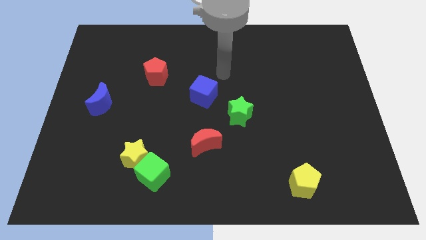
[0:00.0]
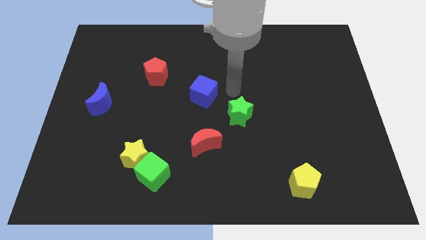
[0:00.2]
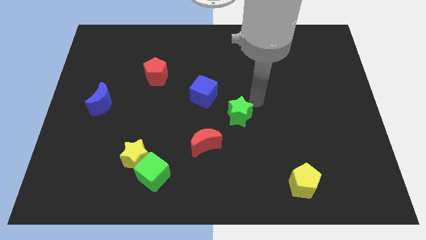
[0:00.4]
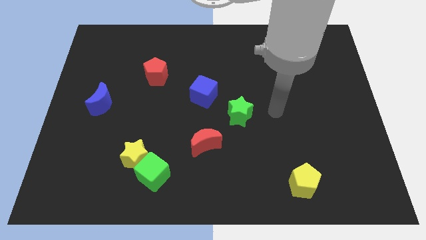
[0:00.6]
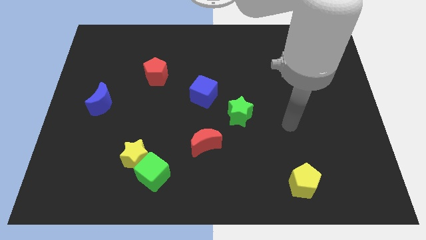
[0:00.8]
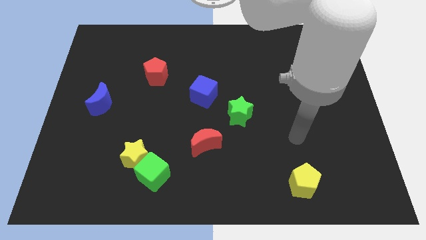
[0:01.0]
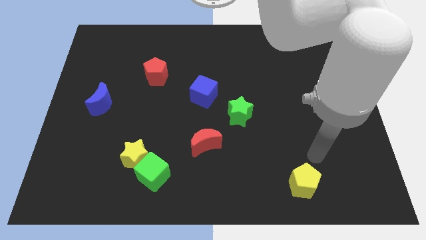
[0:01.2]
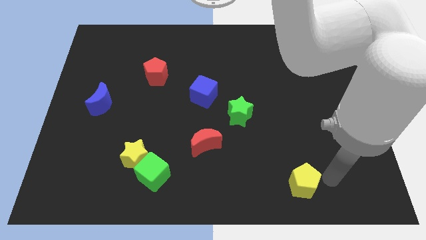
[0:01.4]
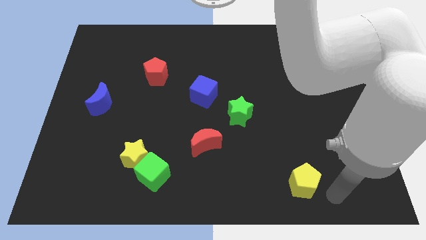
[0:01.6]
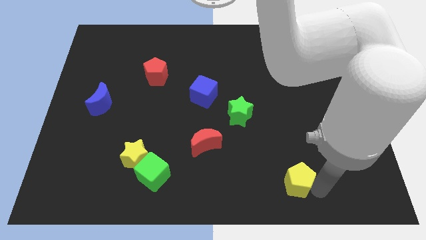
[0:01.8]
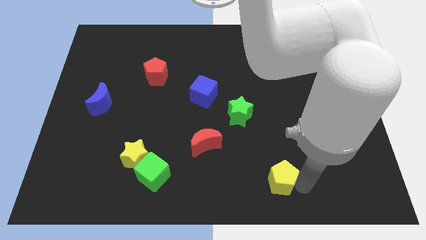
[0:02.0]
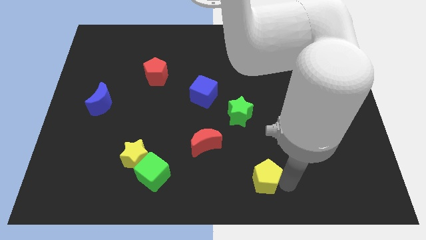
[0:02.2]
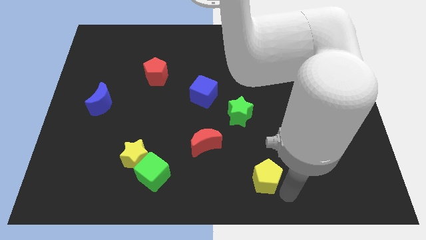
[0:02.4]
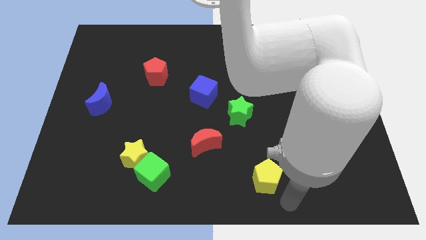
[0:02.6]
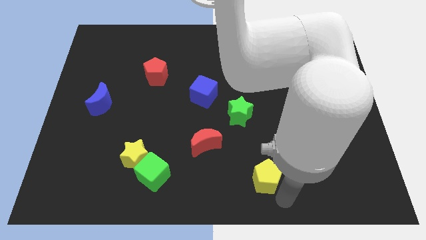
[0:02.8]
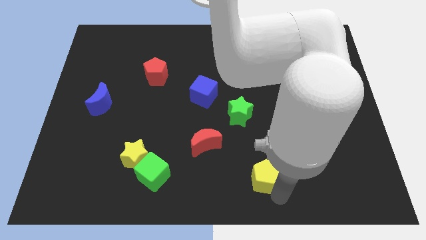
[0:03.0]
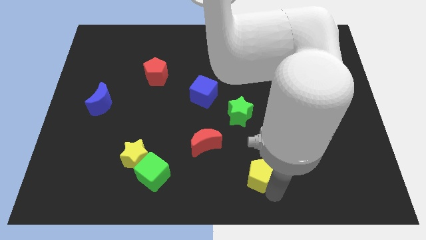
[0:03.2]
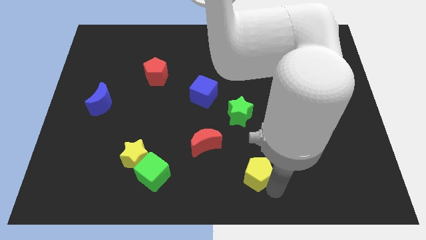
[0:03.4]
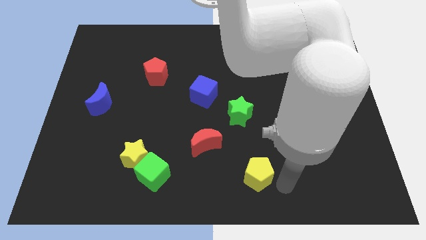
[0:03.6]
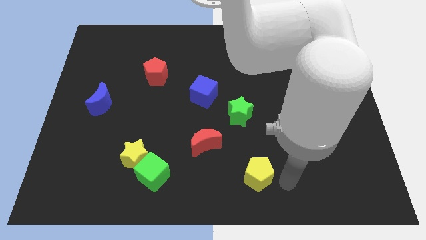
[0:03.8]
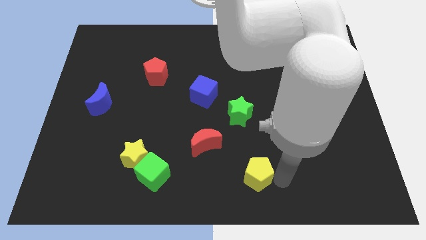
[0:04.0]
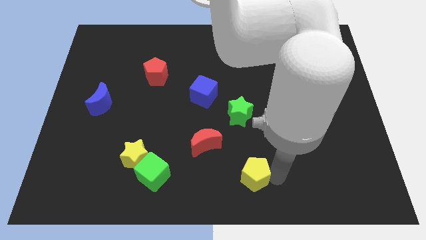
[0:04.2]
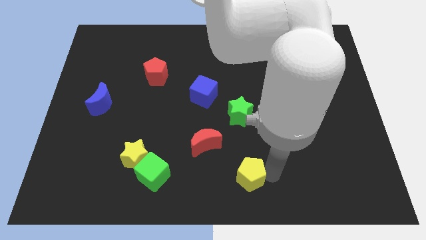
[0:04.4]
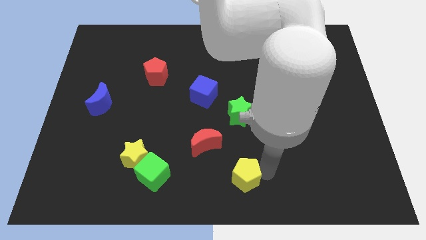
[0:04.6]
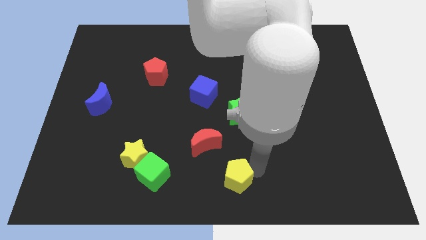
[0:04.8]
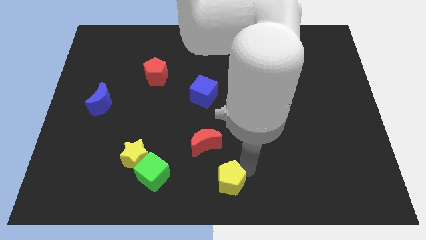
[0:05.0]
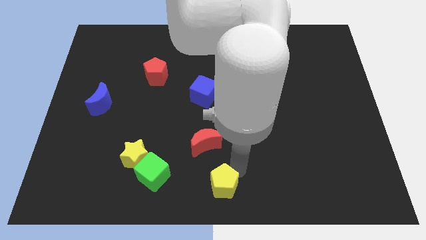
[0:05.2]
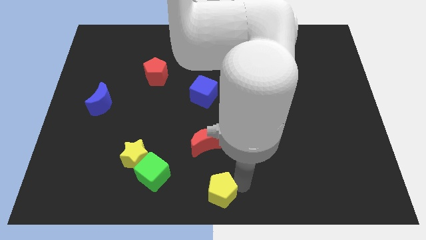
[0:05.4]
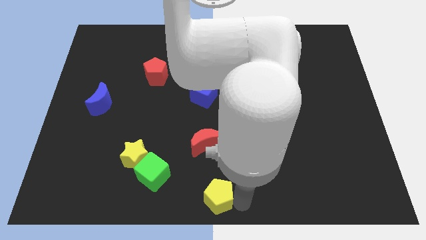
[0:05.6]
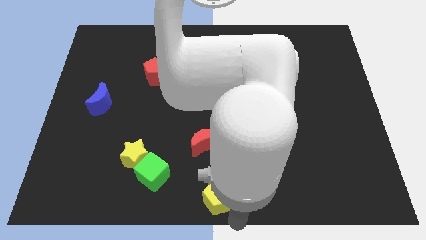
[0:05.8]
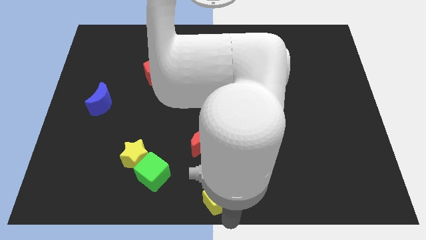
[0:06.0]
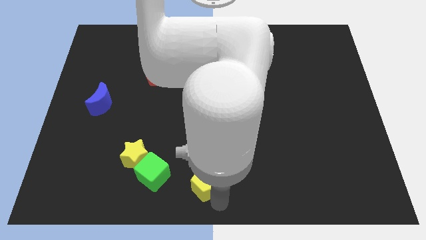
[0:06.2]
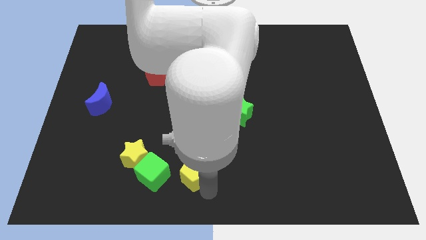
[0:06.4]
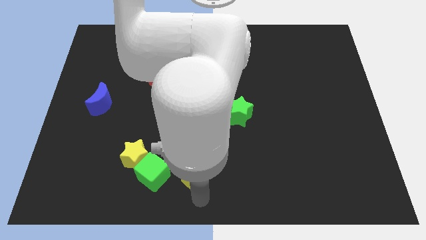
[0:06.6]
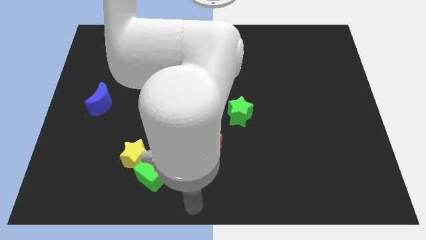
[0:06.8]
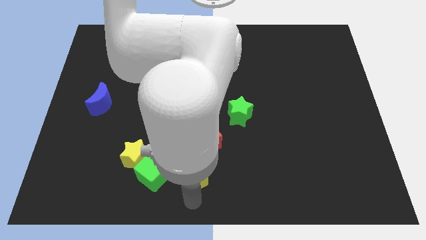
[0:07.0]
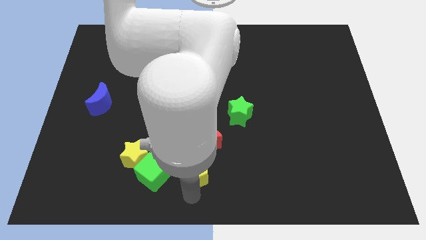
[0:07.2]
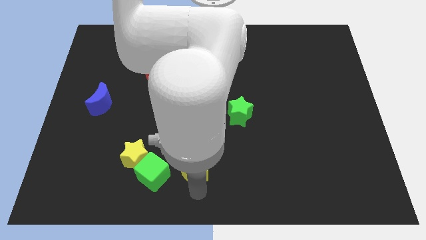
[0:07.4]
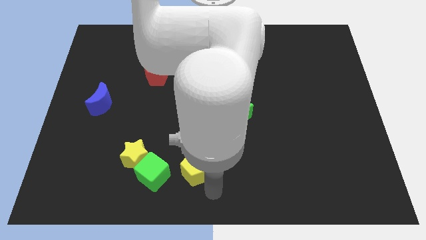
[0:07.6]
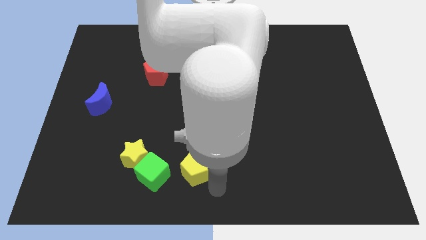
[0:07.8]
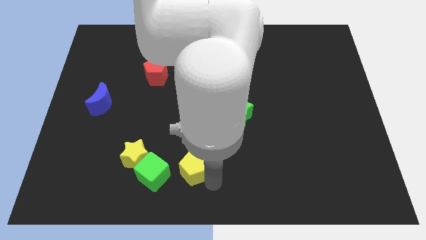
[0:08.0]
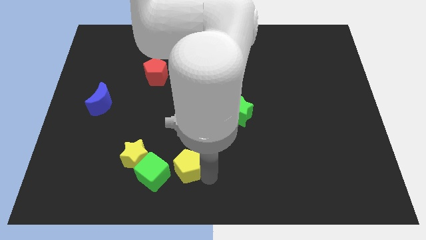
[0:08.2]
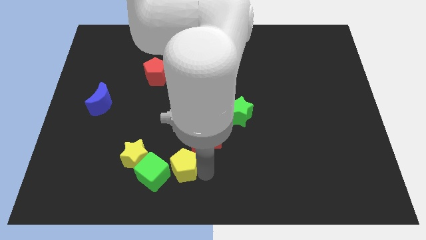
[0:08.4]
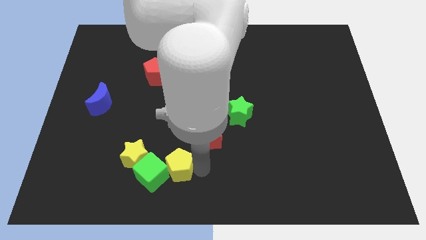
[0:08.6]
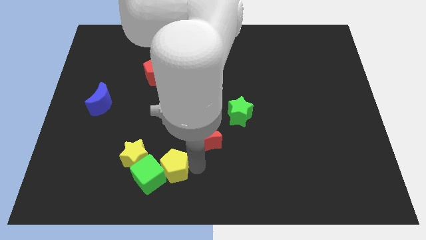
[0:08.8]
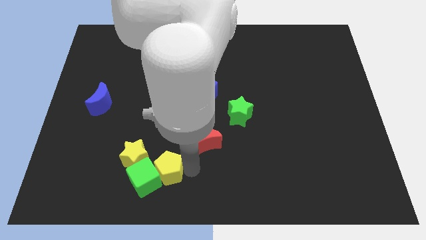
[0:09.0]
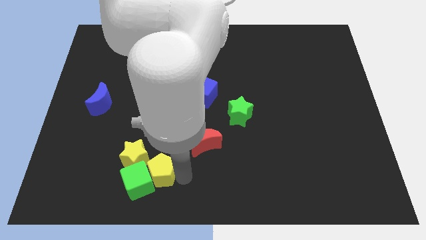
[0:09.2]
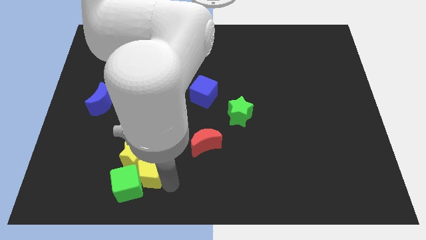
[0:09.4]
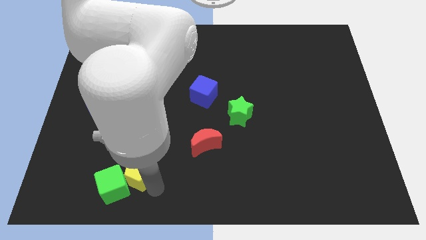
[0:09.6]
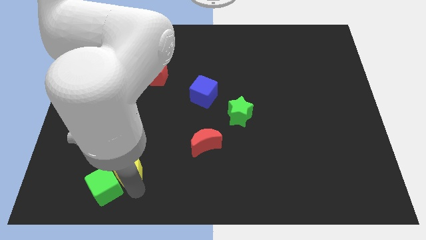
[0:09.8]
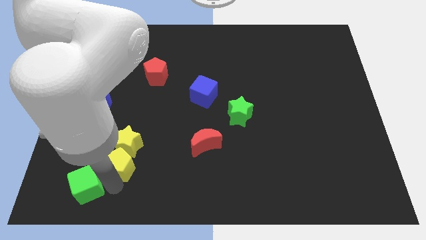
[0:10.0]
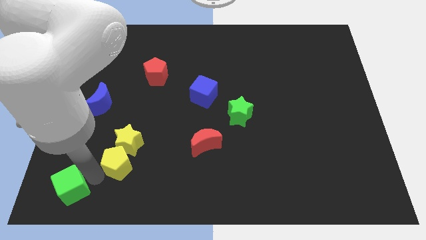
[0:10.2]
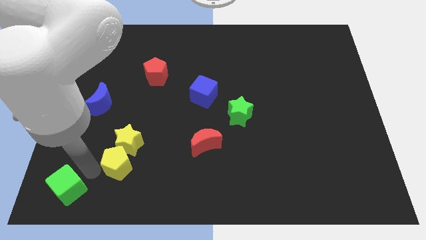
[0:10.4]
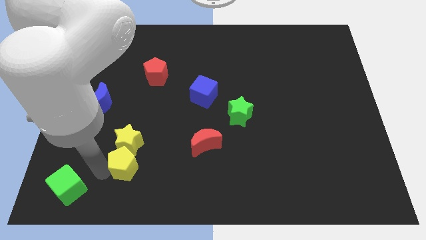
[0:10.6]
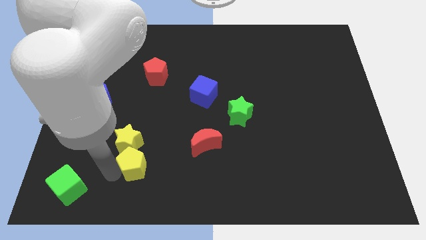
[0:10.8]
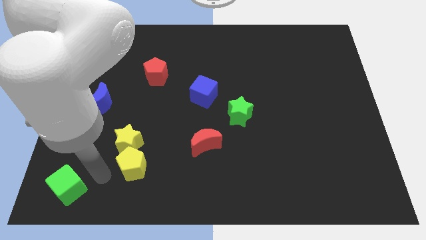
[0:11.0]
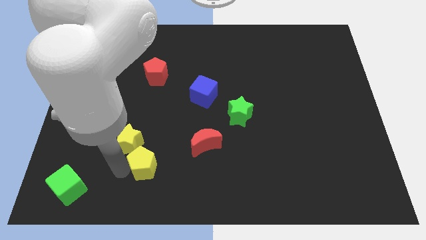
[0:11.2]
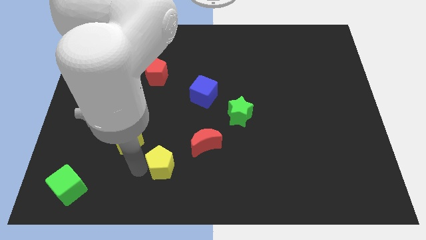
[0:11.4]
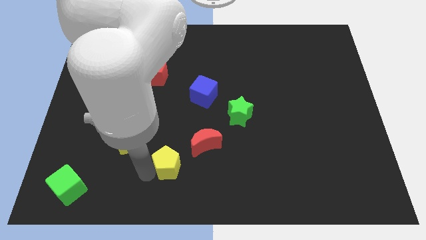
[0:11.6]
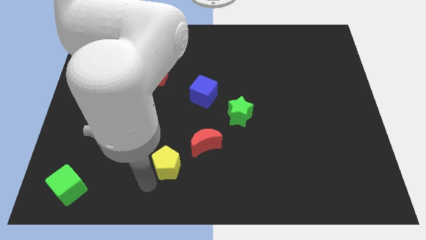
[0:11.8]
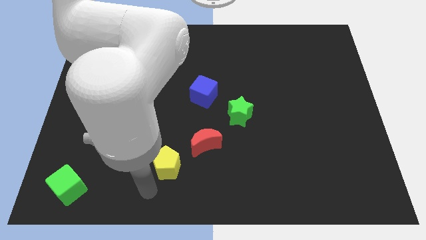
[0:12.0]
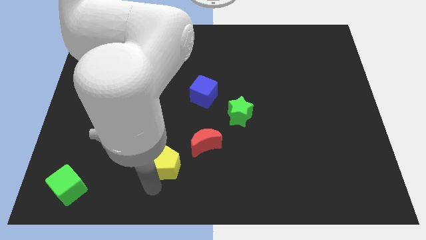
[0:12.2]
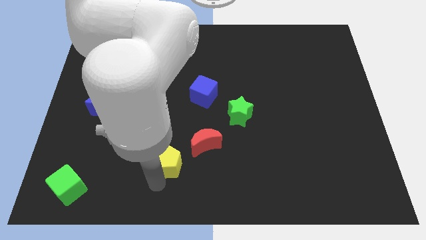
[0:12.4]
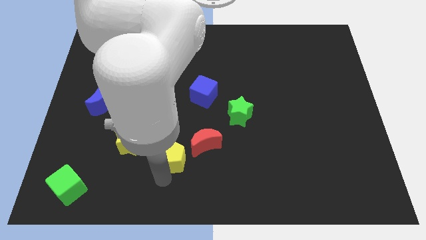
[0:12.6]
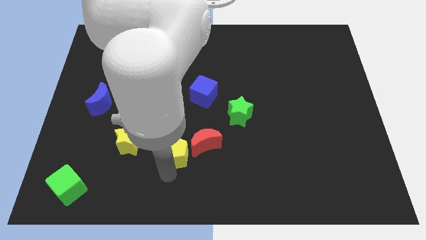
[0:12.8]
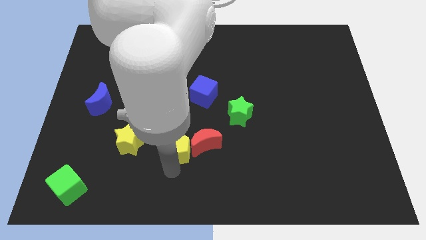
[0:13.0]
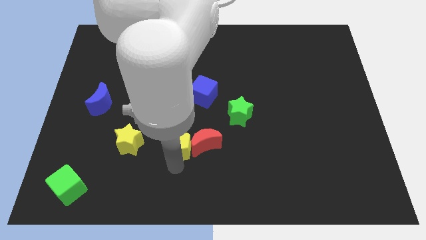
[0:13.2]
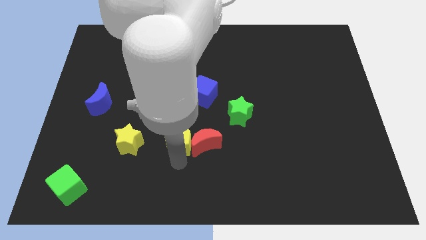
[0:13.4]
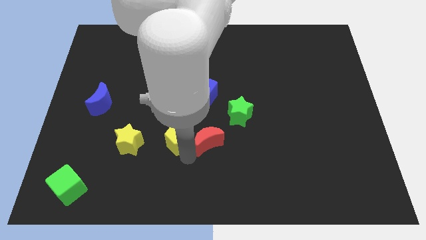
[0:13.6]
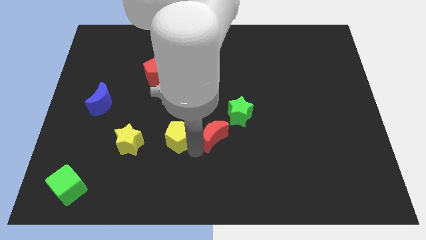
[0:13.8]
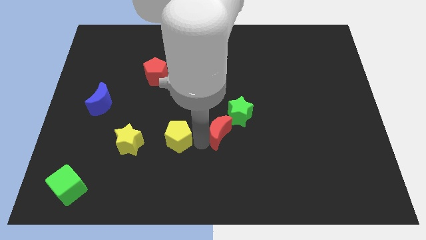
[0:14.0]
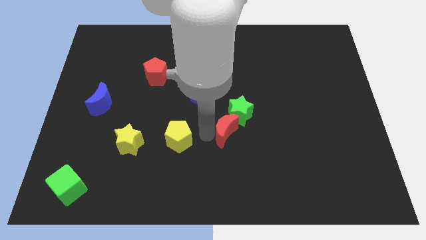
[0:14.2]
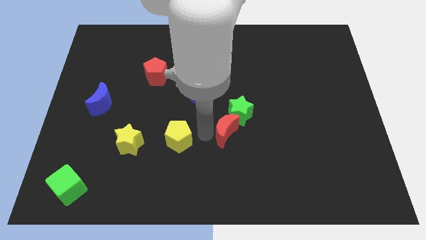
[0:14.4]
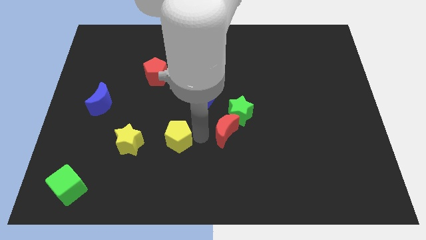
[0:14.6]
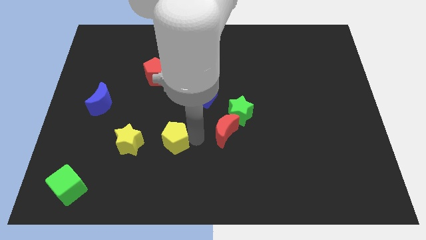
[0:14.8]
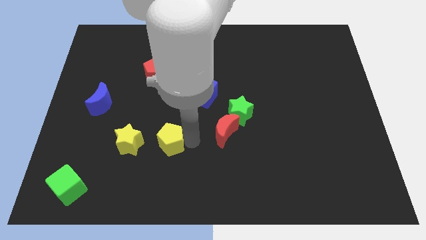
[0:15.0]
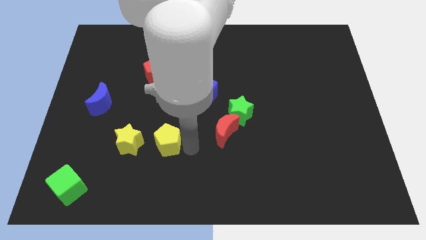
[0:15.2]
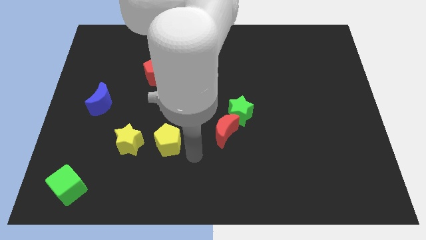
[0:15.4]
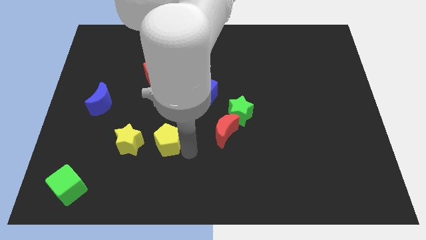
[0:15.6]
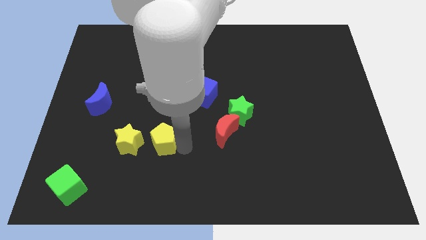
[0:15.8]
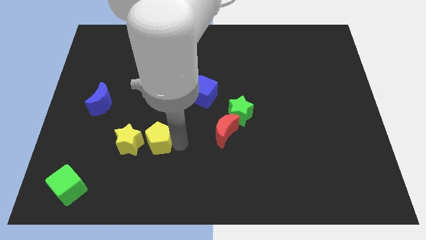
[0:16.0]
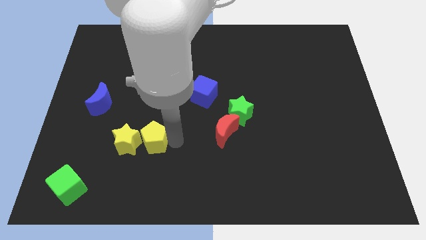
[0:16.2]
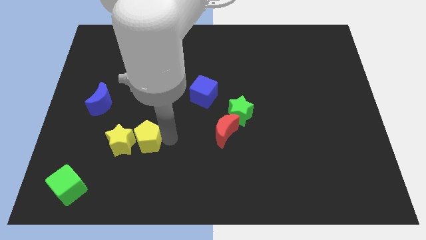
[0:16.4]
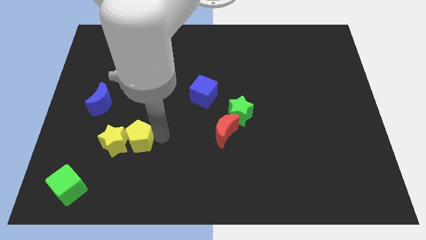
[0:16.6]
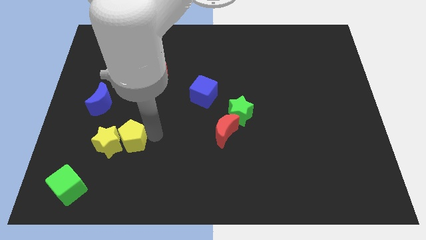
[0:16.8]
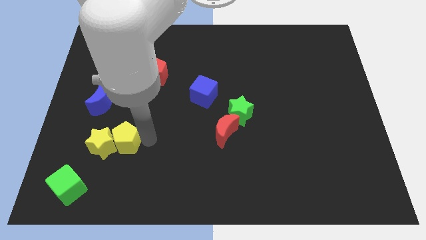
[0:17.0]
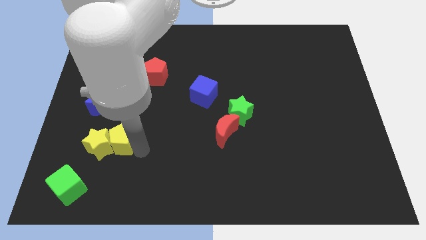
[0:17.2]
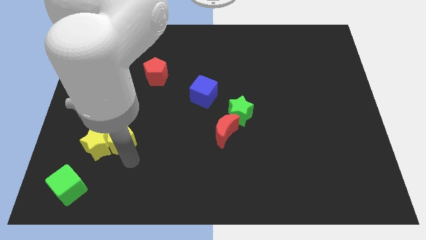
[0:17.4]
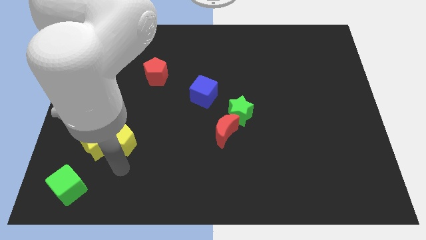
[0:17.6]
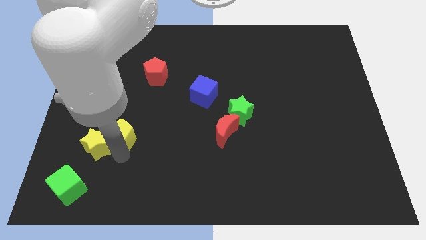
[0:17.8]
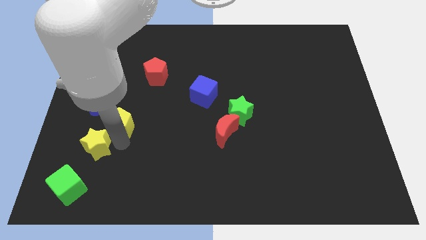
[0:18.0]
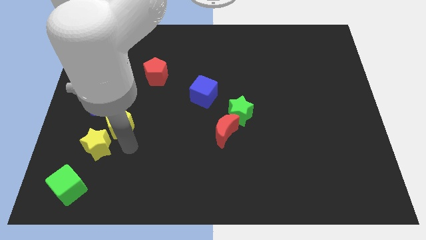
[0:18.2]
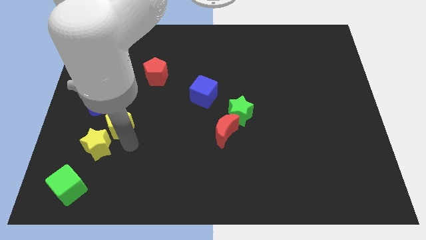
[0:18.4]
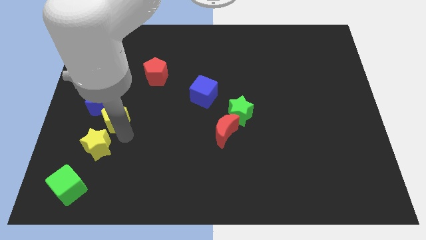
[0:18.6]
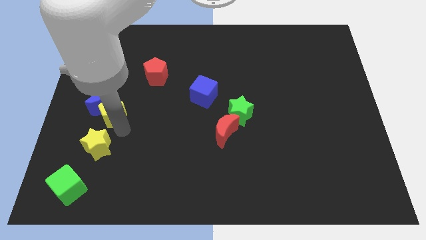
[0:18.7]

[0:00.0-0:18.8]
push the yellow pentagon to the blue moon
